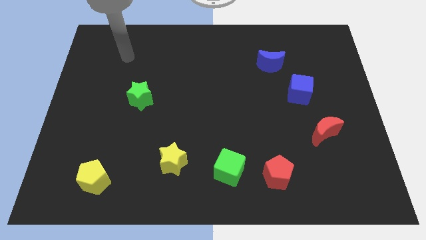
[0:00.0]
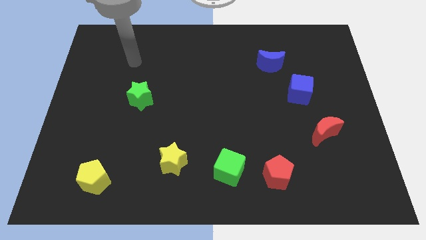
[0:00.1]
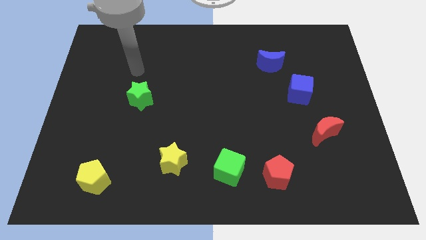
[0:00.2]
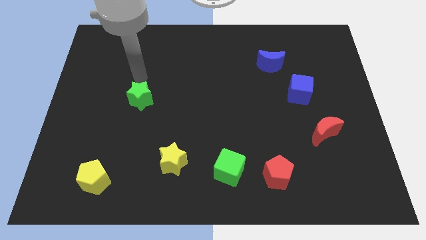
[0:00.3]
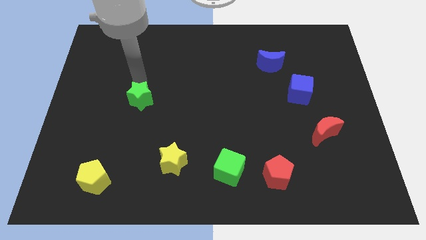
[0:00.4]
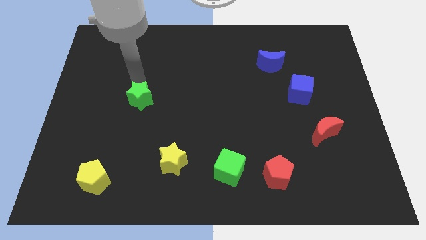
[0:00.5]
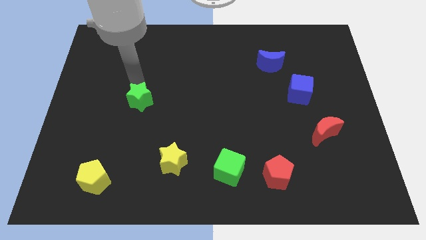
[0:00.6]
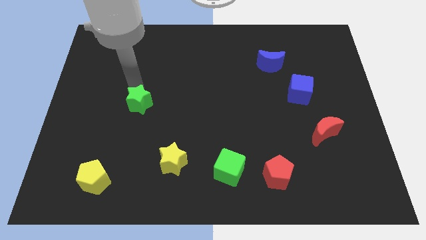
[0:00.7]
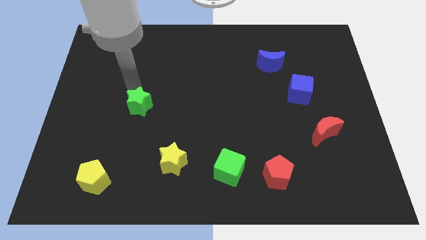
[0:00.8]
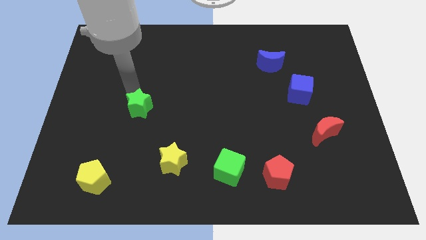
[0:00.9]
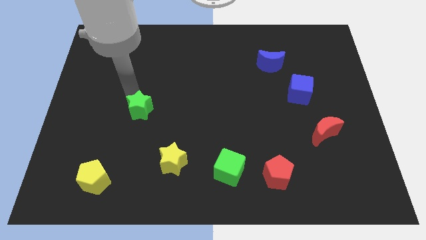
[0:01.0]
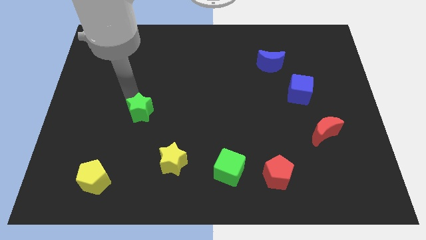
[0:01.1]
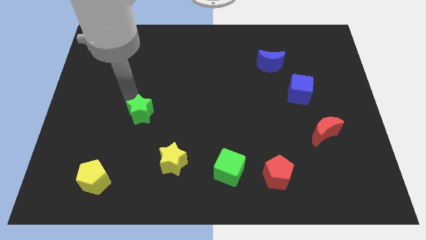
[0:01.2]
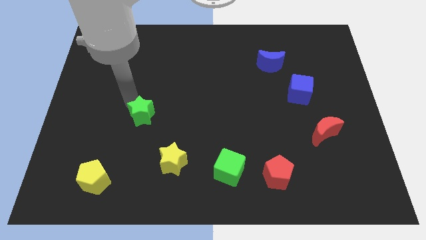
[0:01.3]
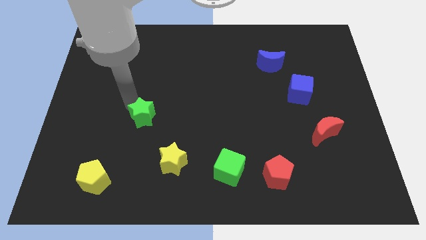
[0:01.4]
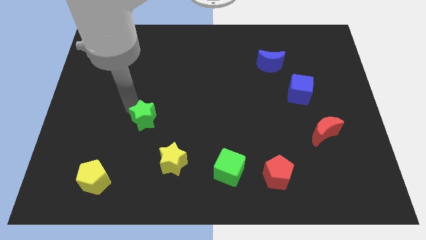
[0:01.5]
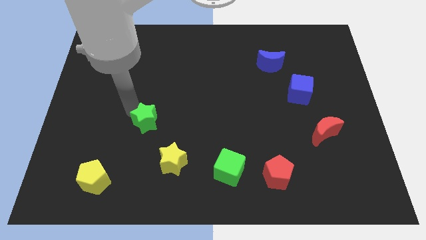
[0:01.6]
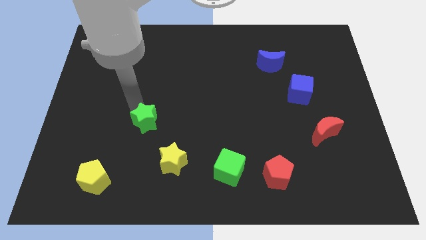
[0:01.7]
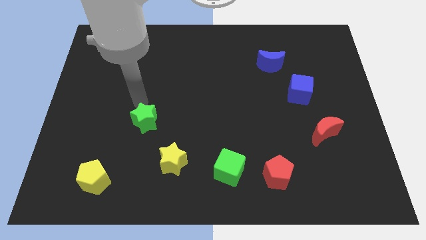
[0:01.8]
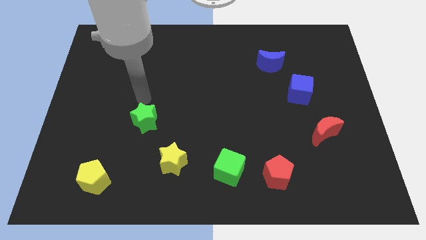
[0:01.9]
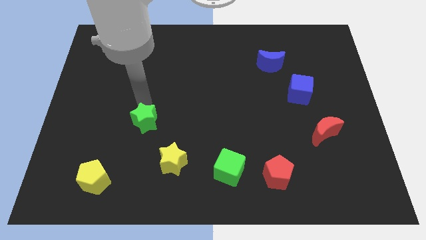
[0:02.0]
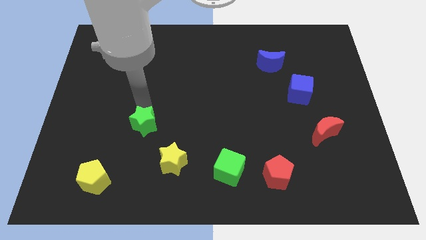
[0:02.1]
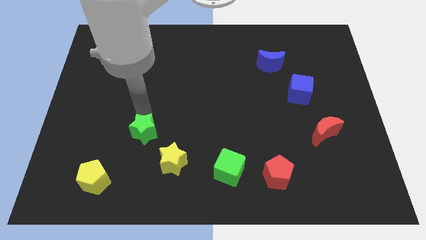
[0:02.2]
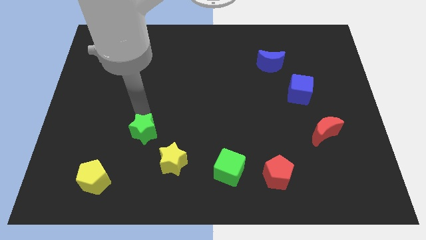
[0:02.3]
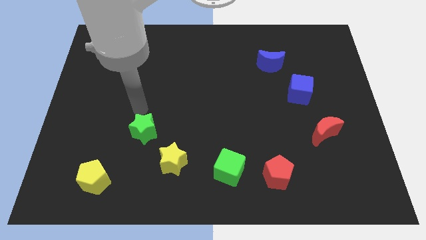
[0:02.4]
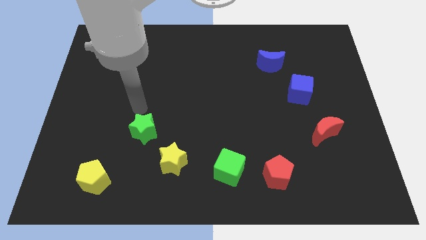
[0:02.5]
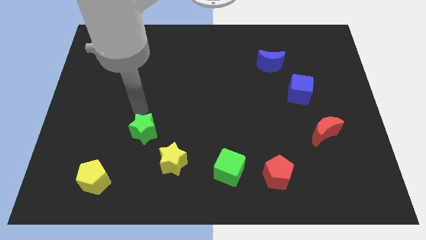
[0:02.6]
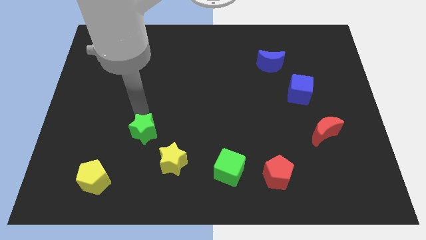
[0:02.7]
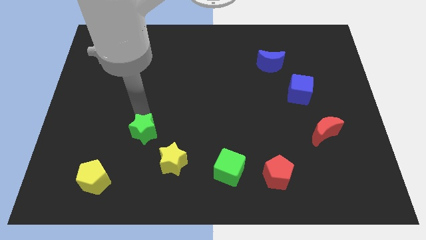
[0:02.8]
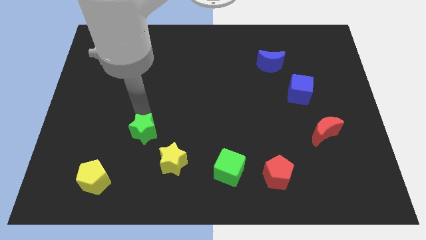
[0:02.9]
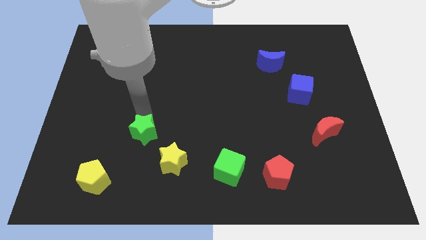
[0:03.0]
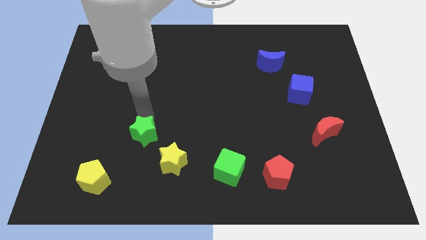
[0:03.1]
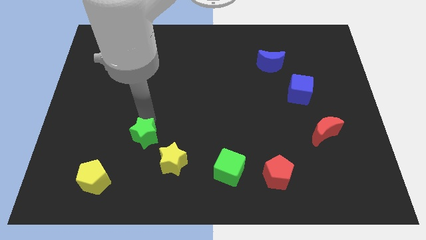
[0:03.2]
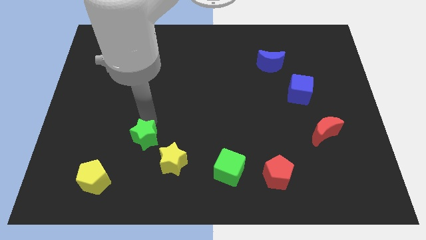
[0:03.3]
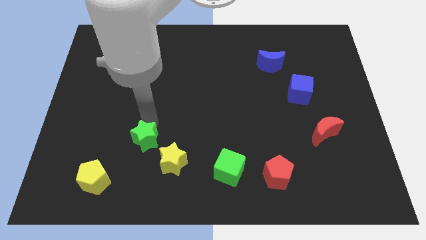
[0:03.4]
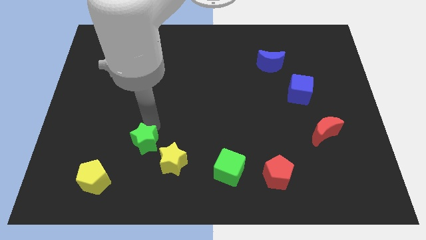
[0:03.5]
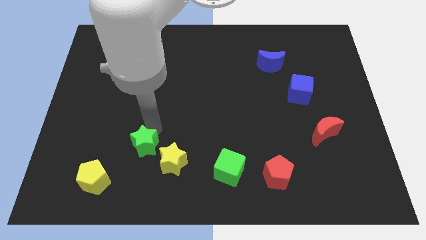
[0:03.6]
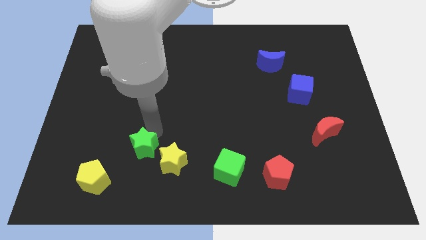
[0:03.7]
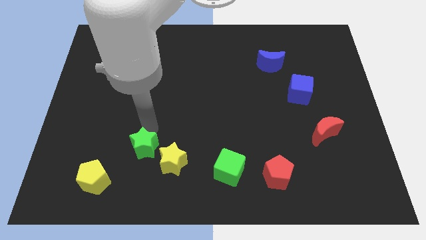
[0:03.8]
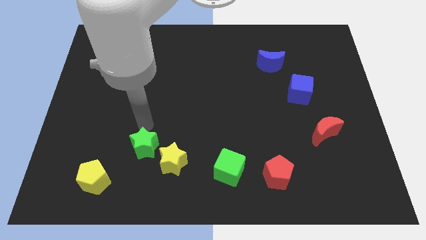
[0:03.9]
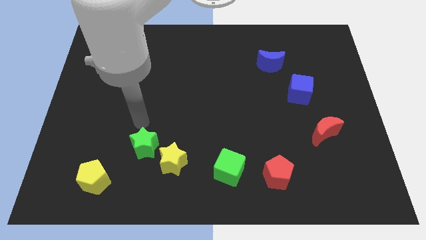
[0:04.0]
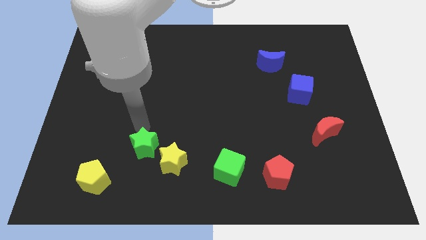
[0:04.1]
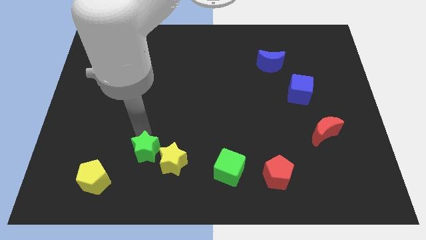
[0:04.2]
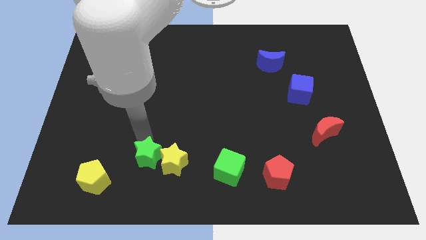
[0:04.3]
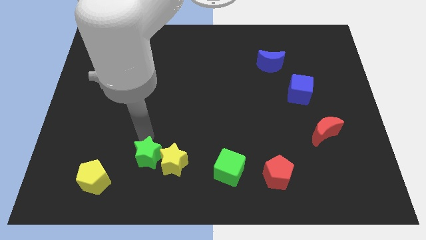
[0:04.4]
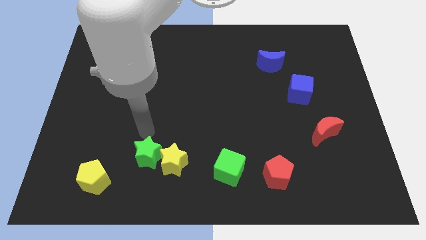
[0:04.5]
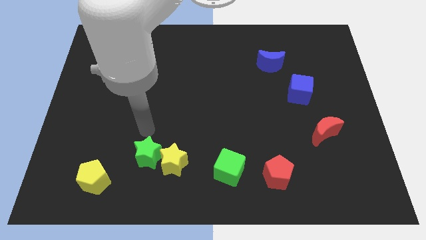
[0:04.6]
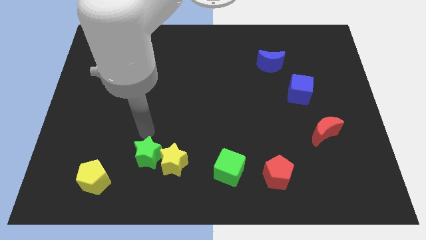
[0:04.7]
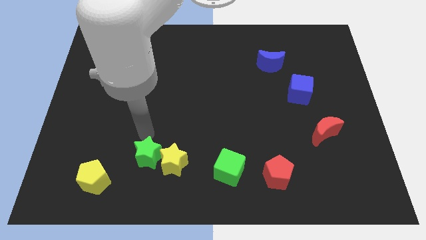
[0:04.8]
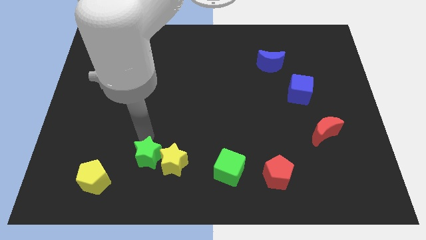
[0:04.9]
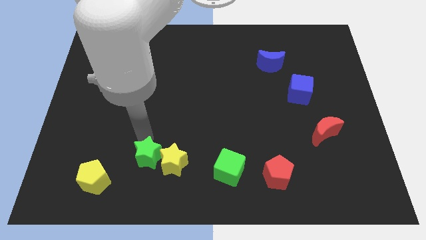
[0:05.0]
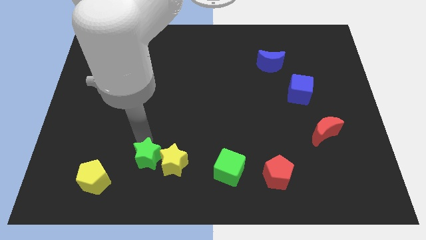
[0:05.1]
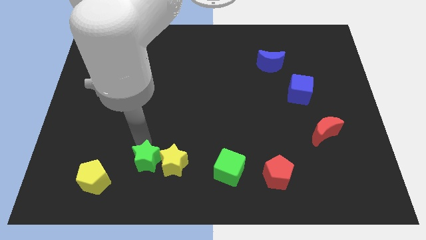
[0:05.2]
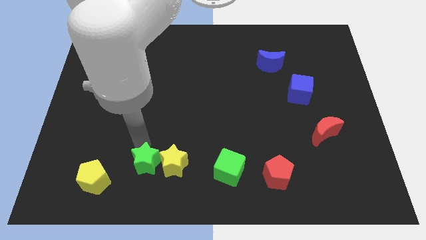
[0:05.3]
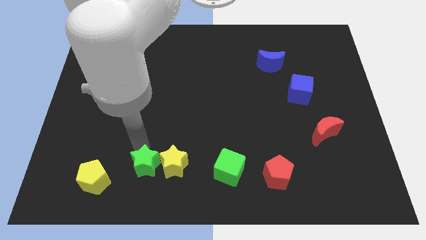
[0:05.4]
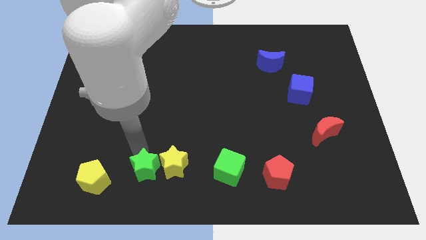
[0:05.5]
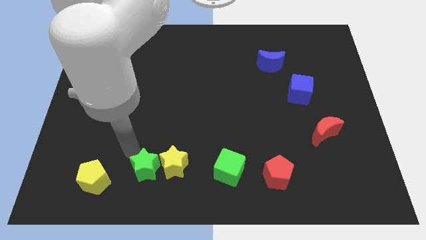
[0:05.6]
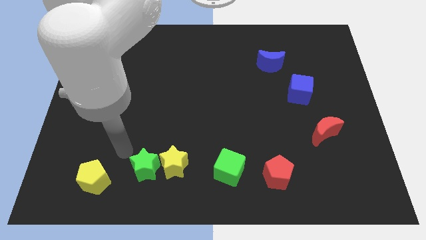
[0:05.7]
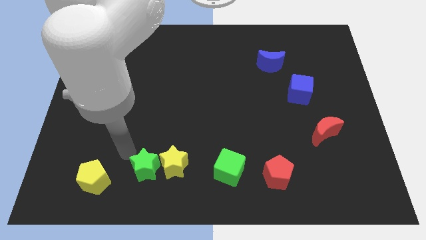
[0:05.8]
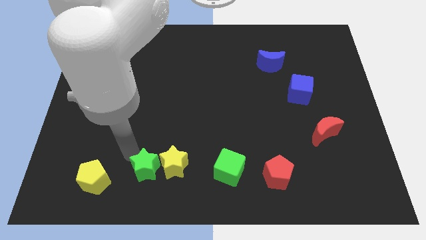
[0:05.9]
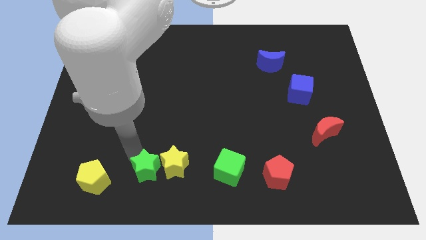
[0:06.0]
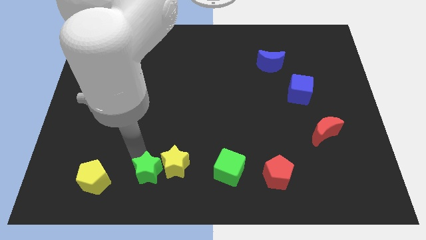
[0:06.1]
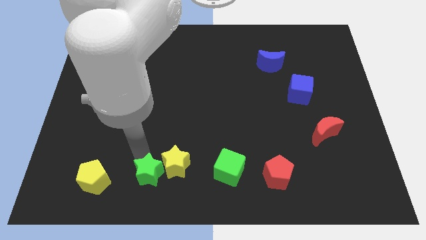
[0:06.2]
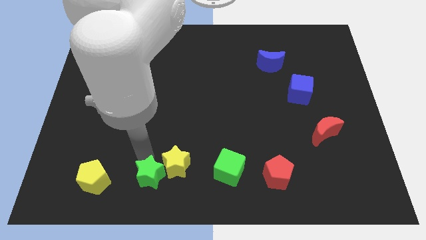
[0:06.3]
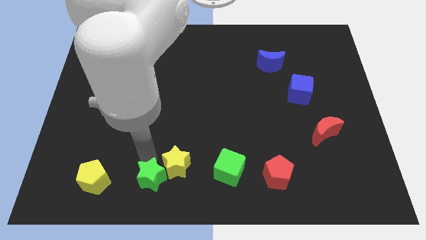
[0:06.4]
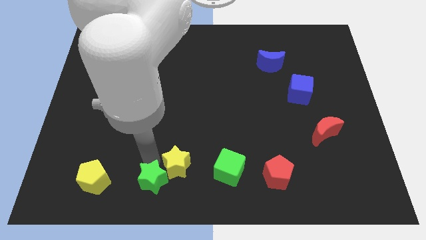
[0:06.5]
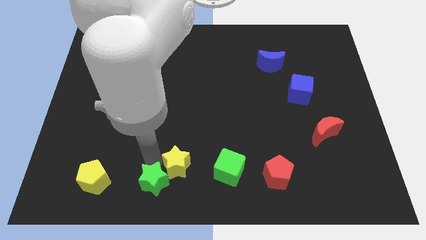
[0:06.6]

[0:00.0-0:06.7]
put the green star to the bottom
